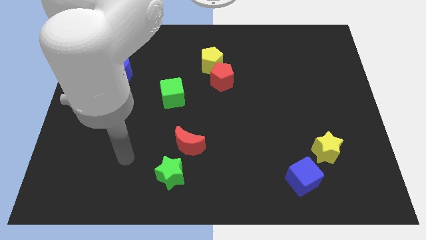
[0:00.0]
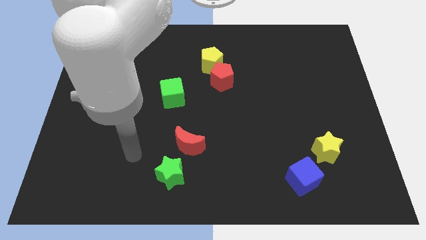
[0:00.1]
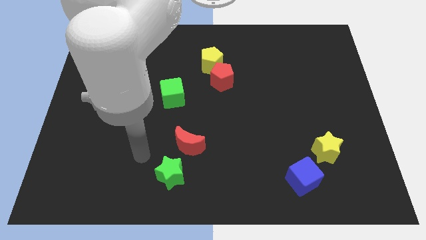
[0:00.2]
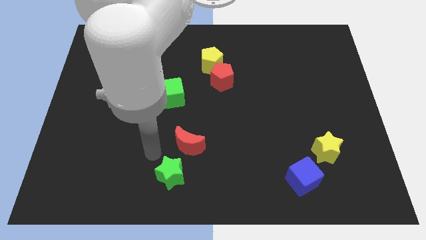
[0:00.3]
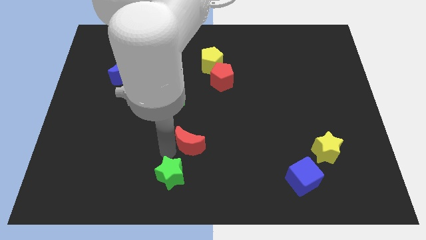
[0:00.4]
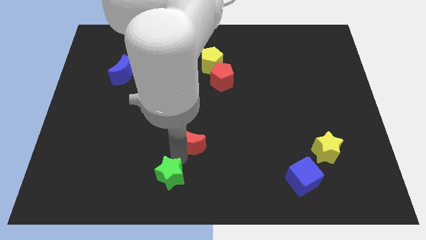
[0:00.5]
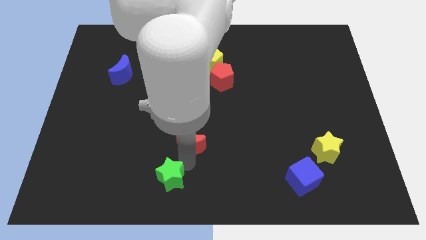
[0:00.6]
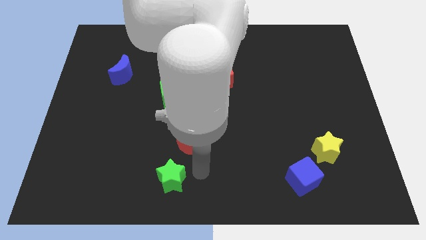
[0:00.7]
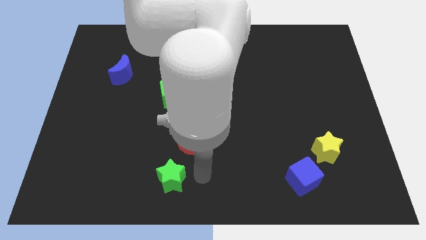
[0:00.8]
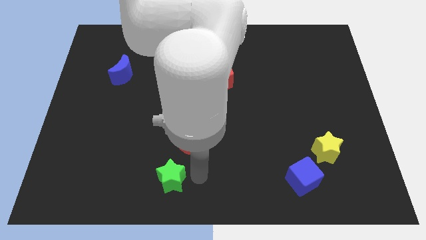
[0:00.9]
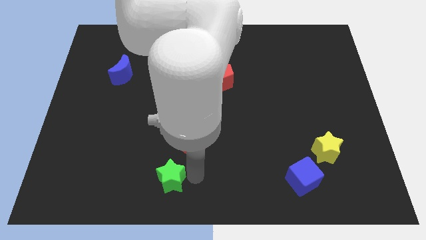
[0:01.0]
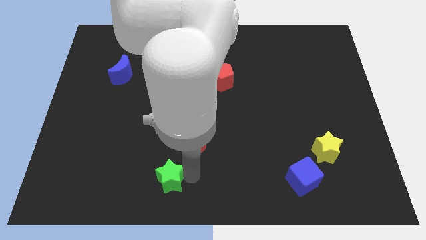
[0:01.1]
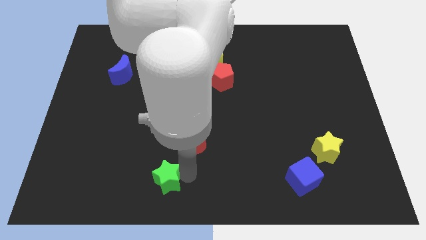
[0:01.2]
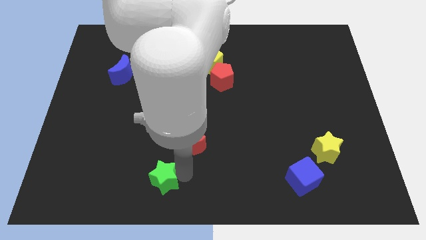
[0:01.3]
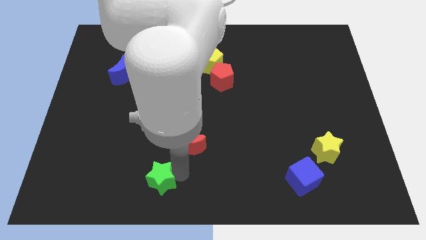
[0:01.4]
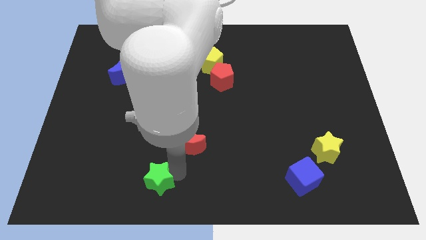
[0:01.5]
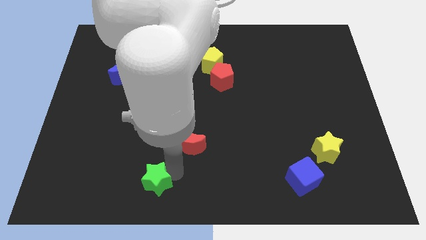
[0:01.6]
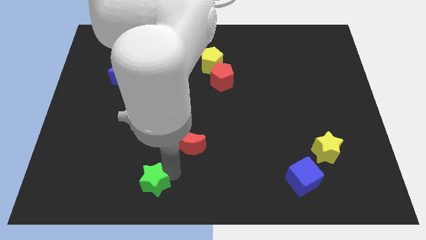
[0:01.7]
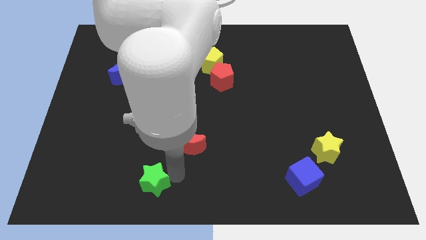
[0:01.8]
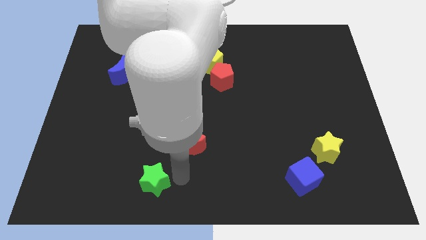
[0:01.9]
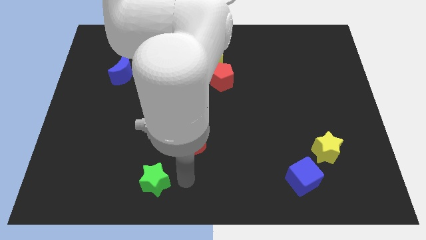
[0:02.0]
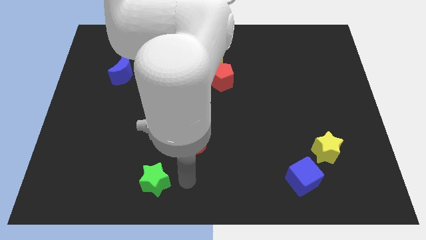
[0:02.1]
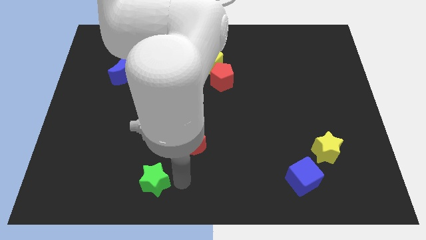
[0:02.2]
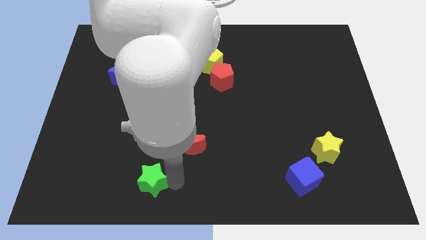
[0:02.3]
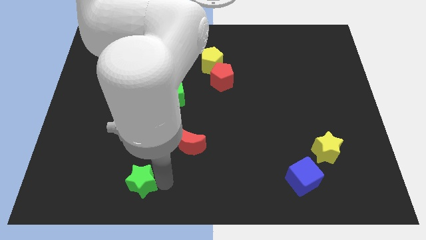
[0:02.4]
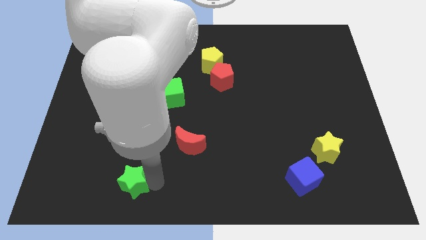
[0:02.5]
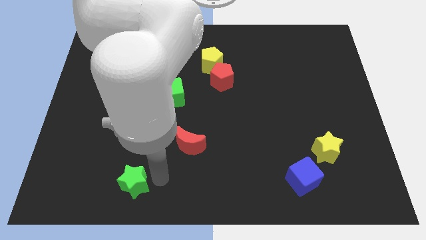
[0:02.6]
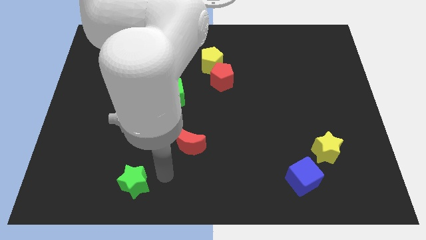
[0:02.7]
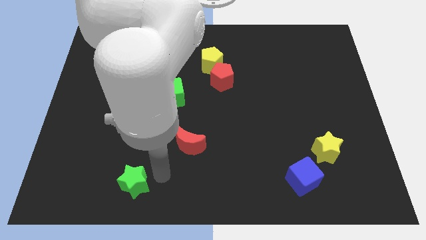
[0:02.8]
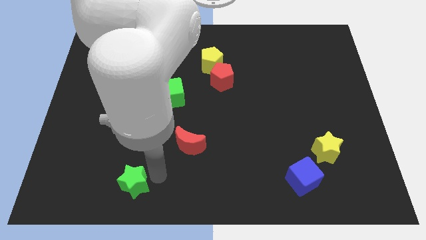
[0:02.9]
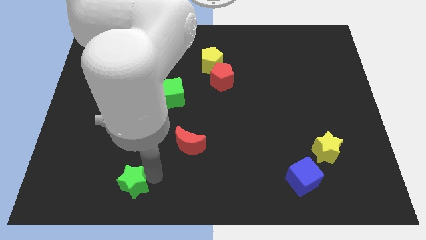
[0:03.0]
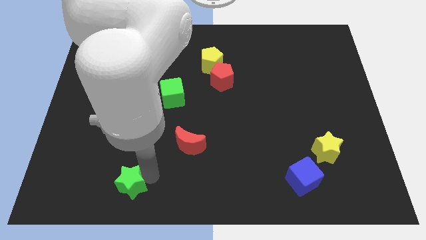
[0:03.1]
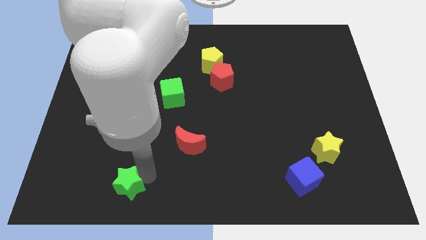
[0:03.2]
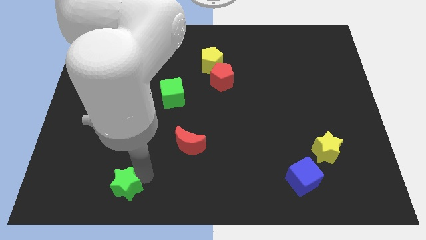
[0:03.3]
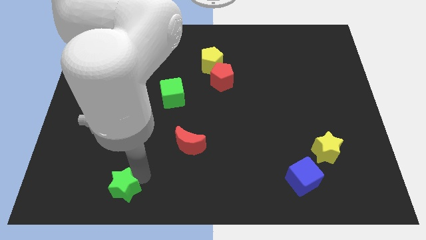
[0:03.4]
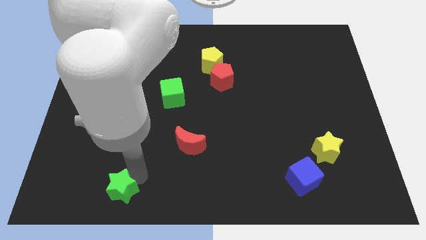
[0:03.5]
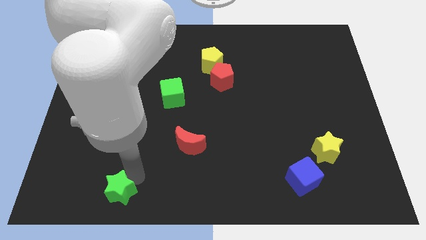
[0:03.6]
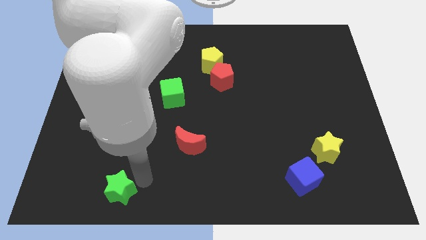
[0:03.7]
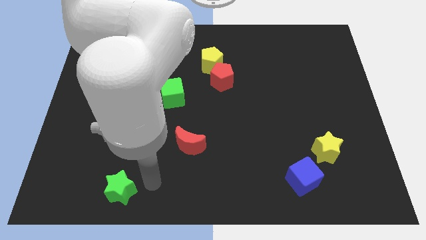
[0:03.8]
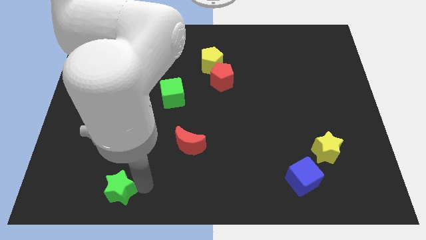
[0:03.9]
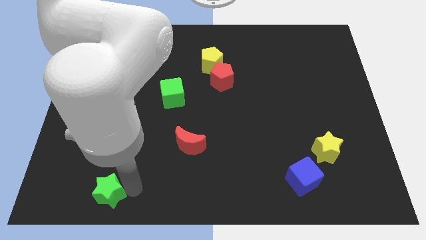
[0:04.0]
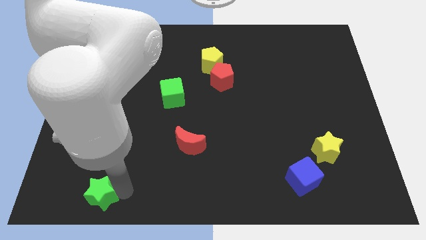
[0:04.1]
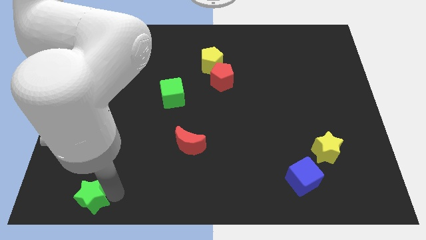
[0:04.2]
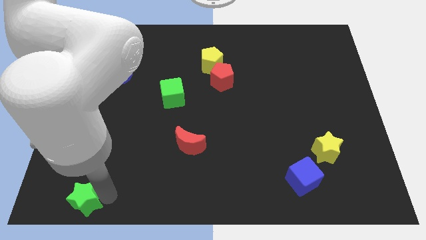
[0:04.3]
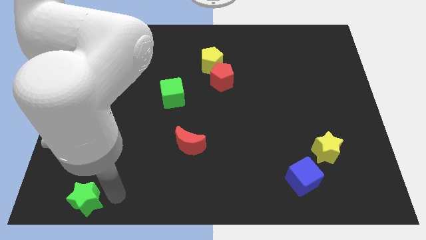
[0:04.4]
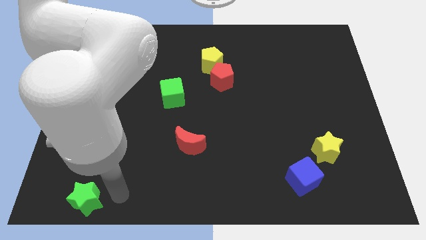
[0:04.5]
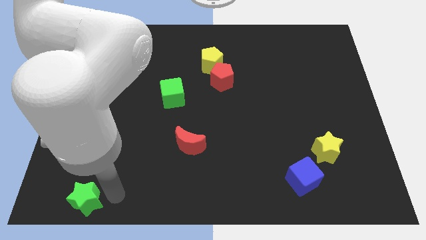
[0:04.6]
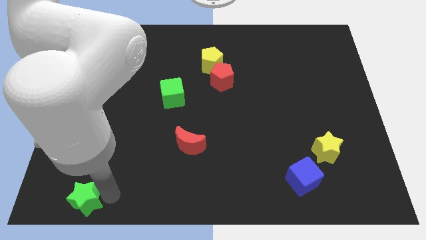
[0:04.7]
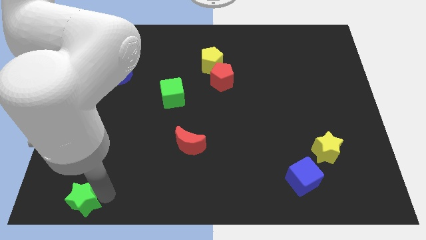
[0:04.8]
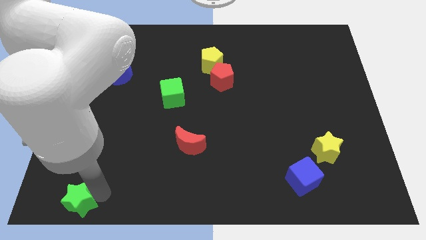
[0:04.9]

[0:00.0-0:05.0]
move the green star to the bottom left of the board

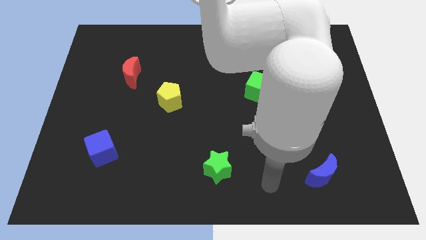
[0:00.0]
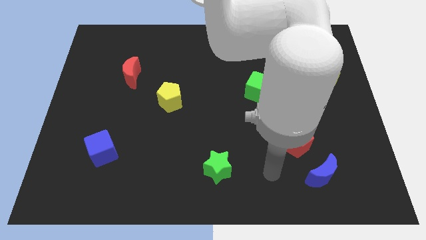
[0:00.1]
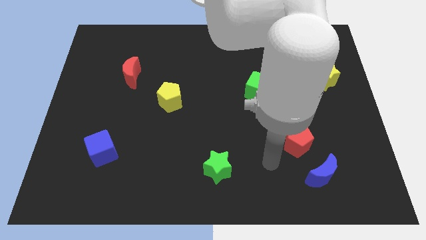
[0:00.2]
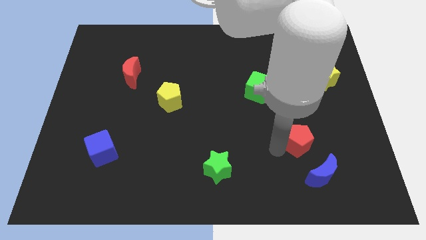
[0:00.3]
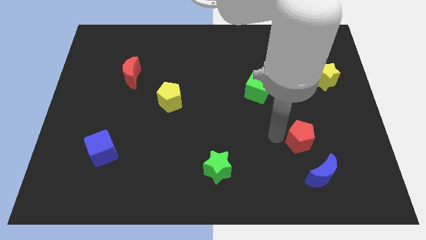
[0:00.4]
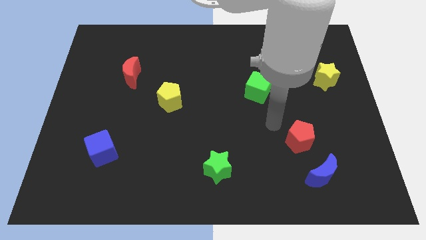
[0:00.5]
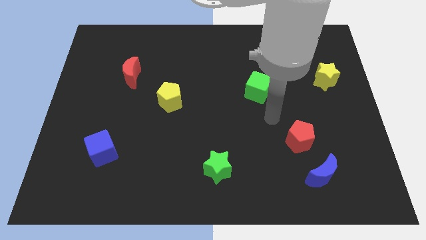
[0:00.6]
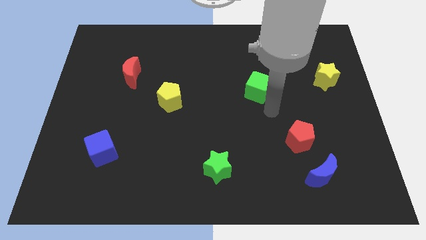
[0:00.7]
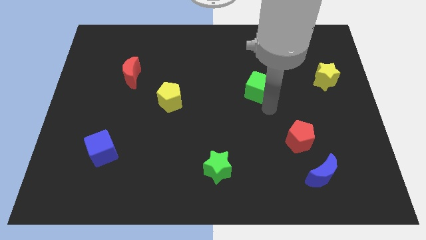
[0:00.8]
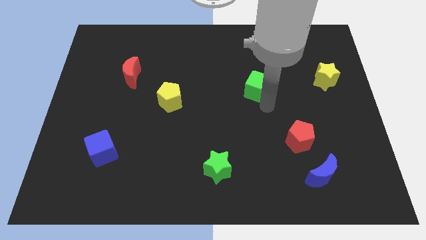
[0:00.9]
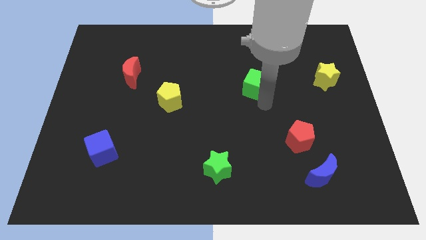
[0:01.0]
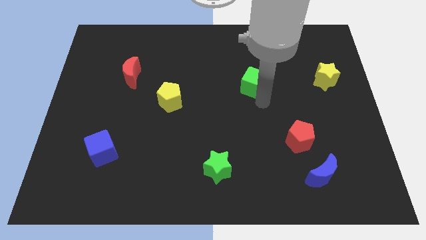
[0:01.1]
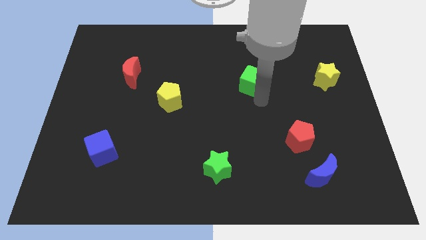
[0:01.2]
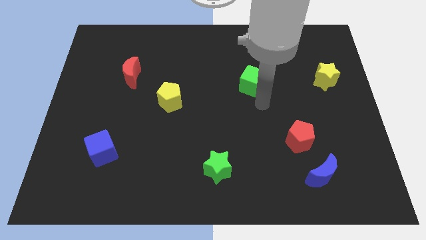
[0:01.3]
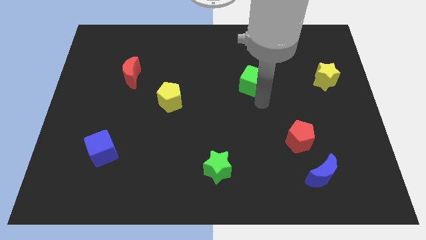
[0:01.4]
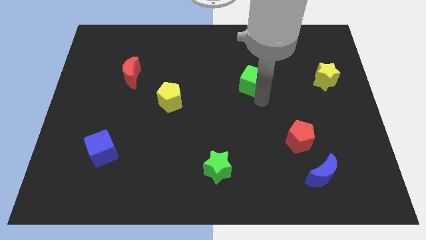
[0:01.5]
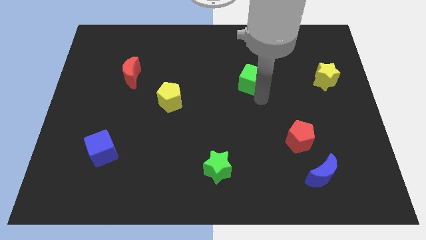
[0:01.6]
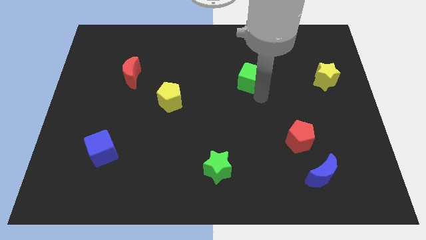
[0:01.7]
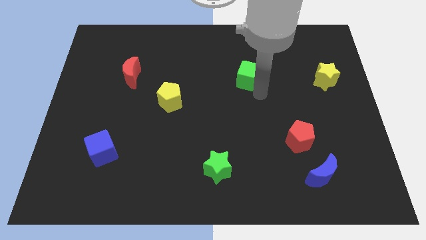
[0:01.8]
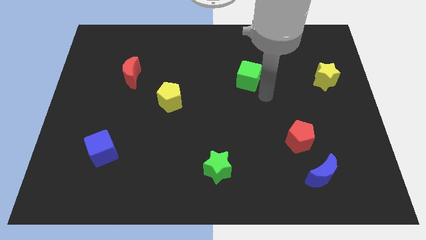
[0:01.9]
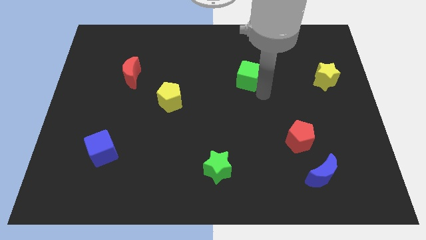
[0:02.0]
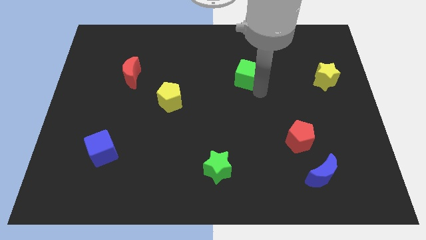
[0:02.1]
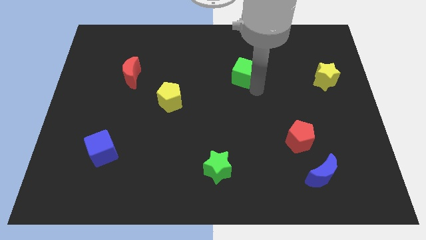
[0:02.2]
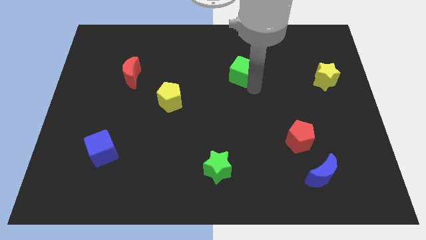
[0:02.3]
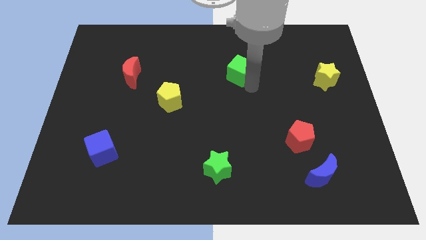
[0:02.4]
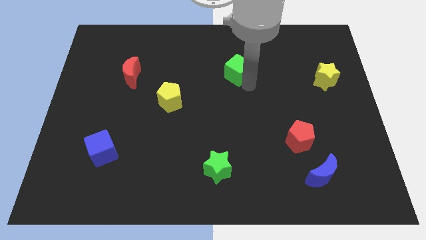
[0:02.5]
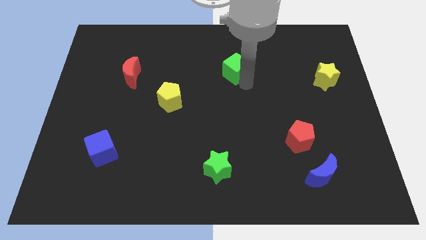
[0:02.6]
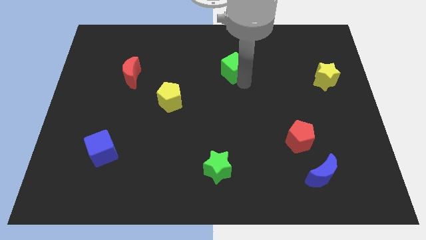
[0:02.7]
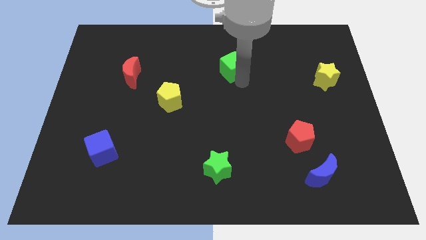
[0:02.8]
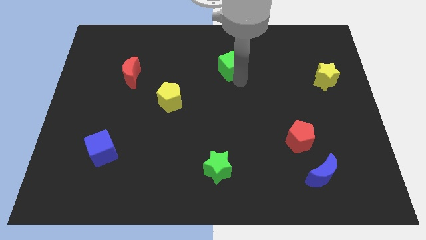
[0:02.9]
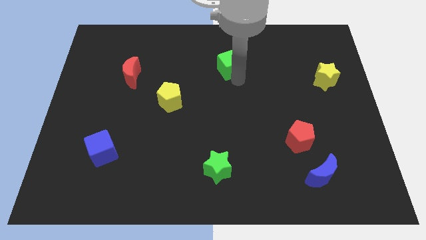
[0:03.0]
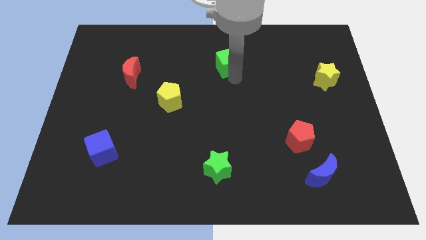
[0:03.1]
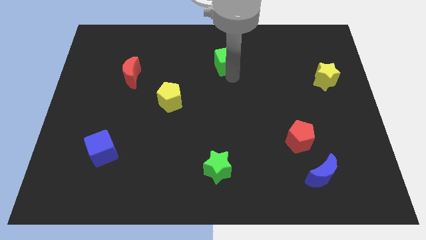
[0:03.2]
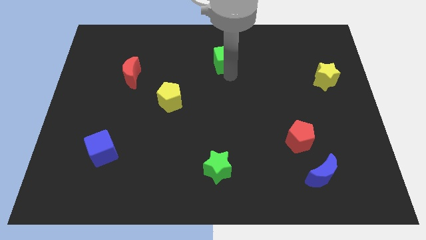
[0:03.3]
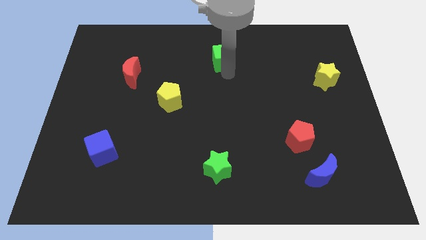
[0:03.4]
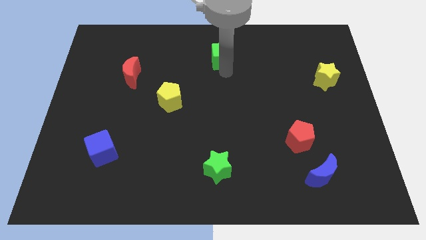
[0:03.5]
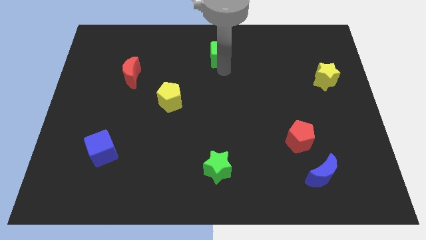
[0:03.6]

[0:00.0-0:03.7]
slide the green cube to the top side
